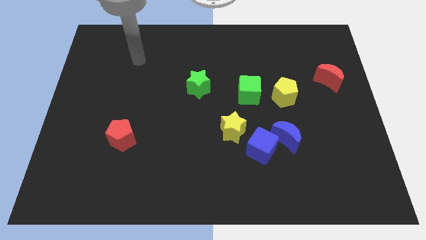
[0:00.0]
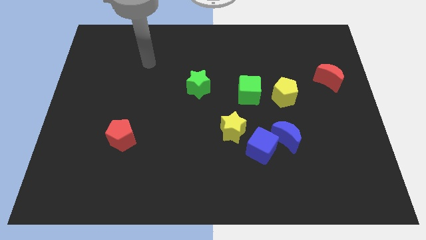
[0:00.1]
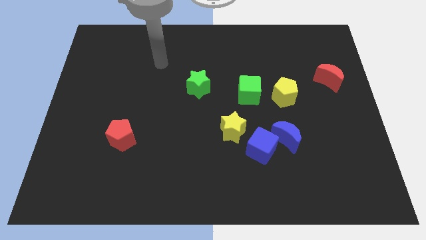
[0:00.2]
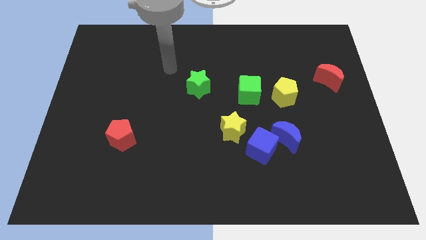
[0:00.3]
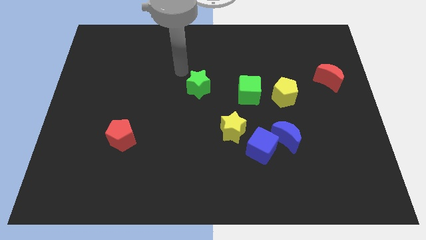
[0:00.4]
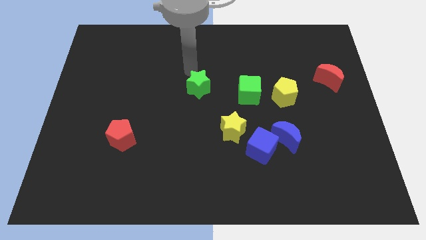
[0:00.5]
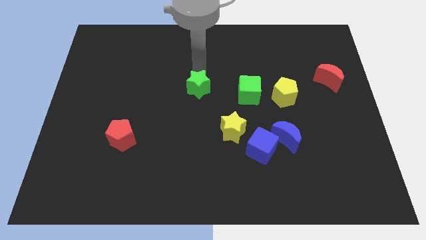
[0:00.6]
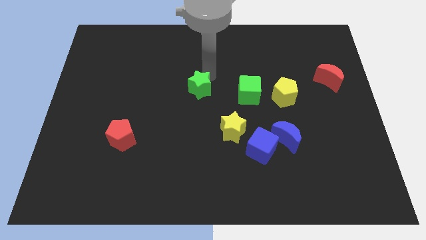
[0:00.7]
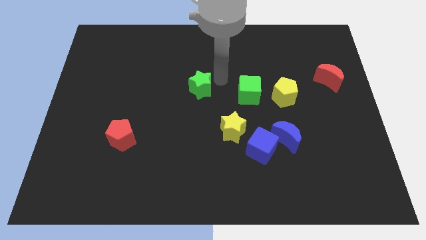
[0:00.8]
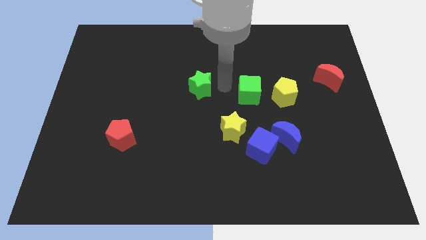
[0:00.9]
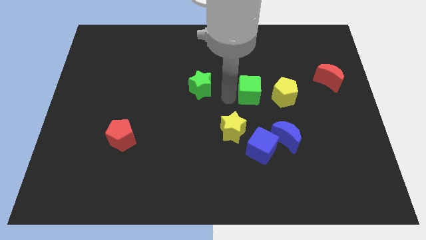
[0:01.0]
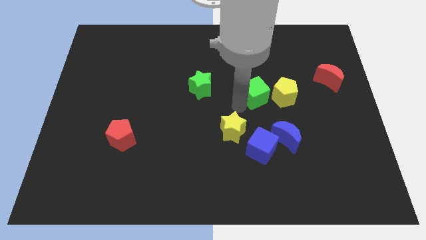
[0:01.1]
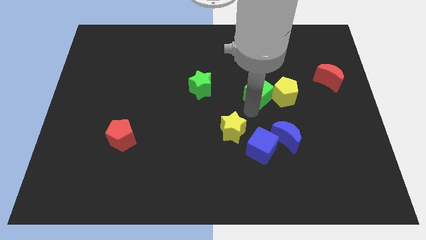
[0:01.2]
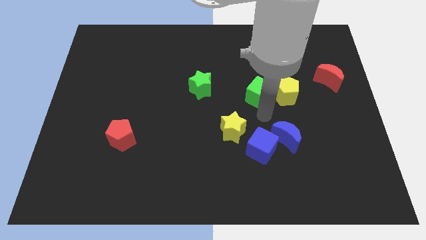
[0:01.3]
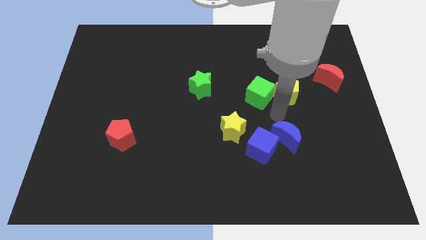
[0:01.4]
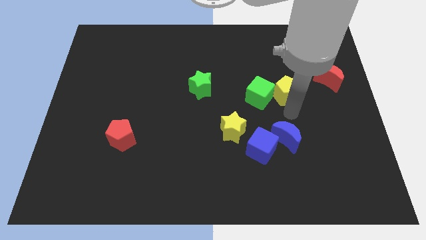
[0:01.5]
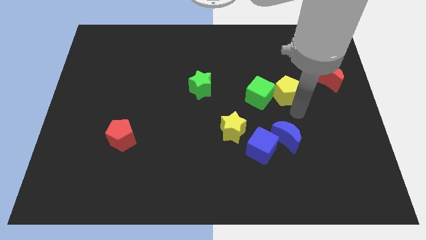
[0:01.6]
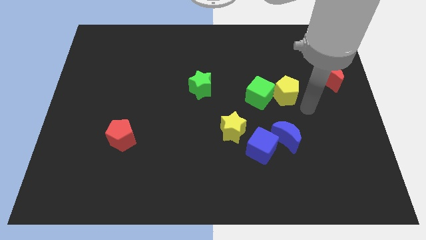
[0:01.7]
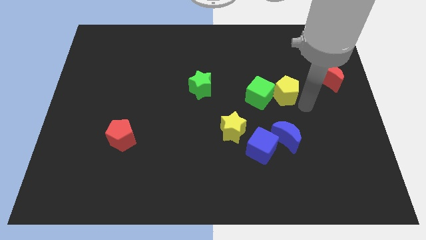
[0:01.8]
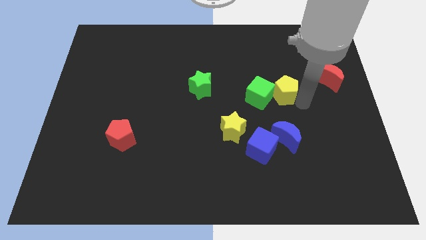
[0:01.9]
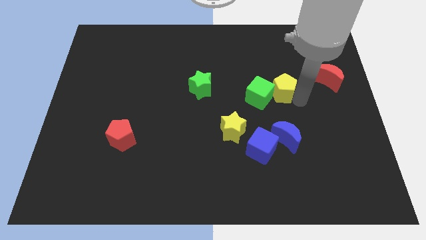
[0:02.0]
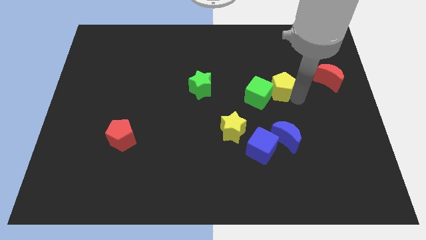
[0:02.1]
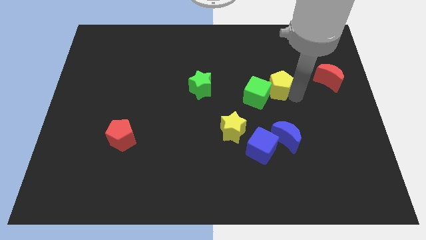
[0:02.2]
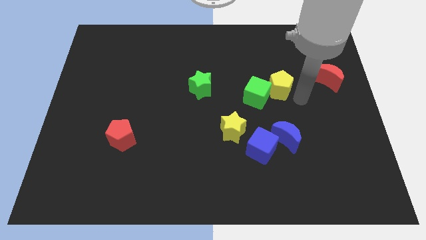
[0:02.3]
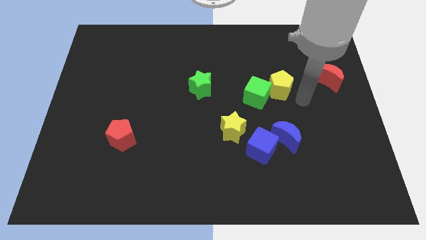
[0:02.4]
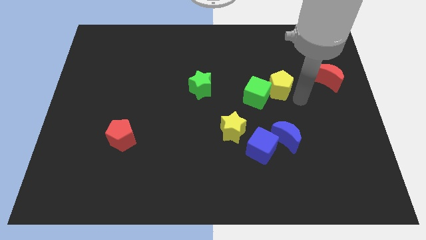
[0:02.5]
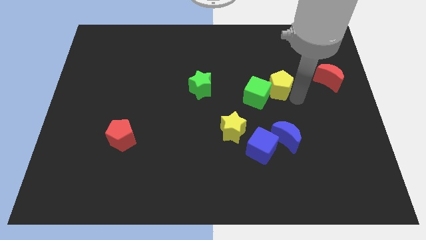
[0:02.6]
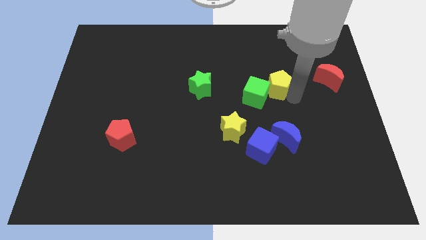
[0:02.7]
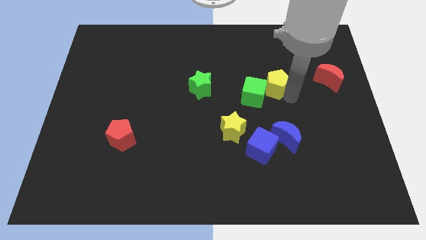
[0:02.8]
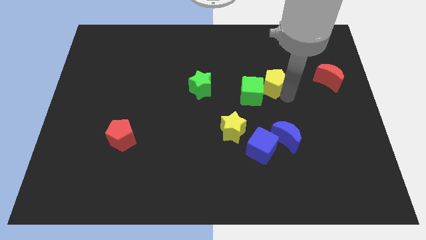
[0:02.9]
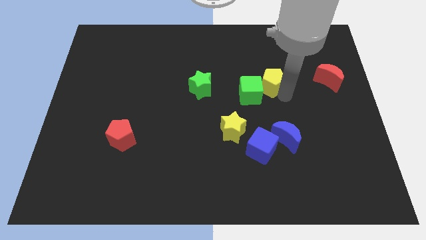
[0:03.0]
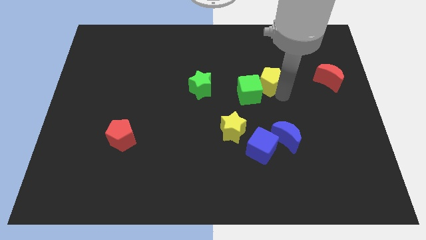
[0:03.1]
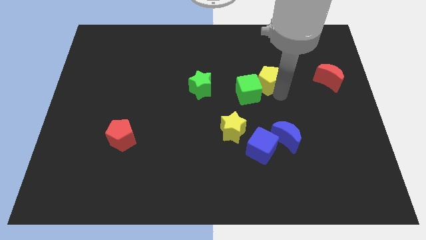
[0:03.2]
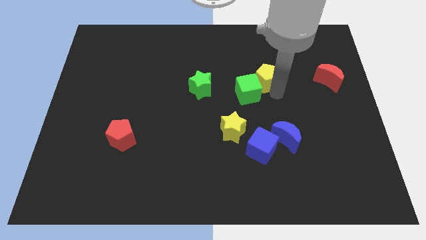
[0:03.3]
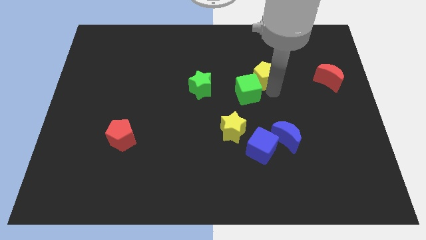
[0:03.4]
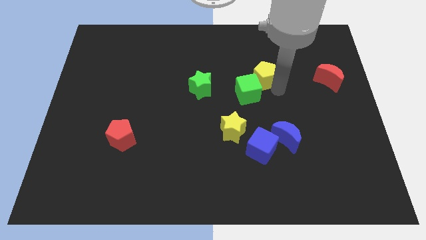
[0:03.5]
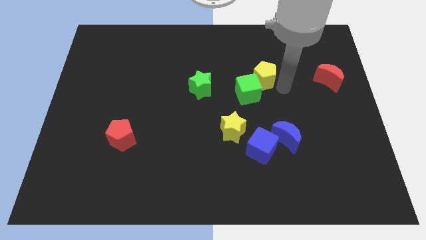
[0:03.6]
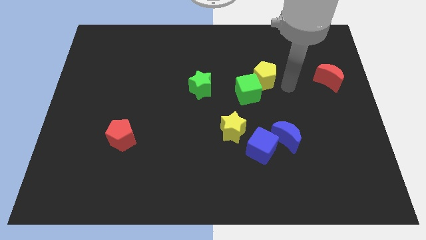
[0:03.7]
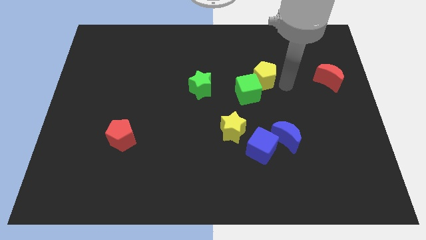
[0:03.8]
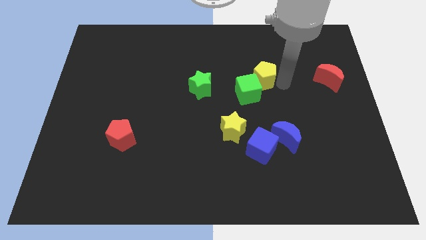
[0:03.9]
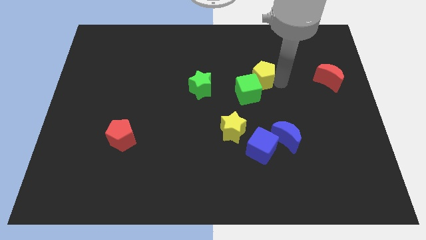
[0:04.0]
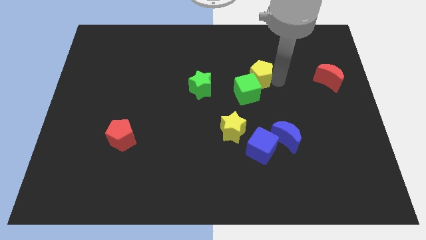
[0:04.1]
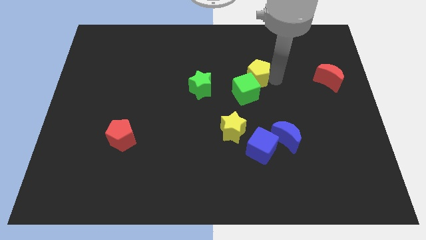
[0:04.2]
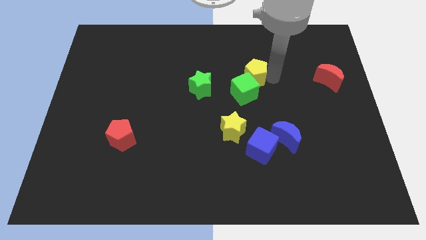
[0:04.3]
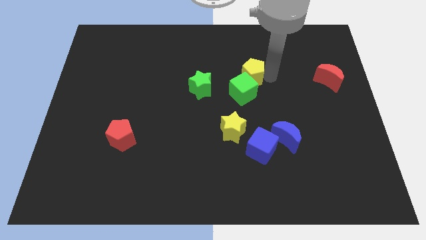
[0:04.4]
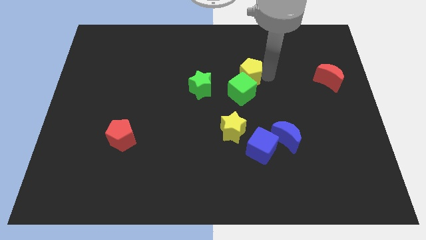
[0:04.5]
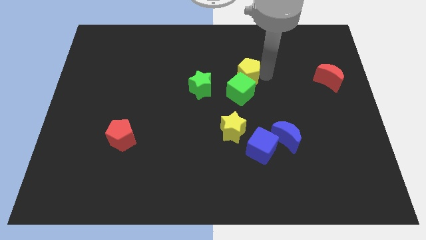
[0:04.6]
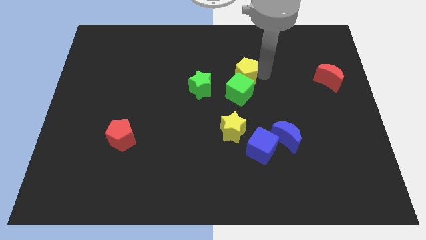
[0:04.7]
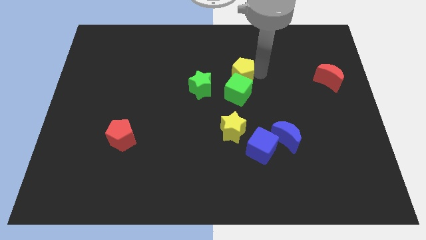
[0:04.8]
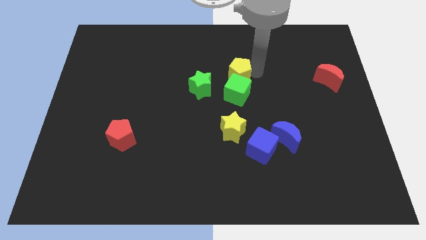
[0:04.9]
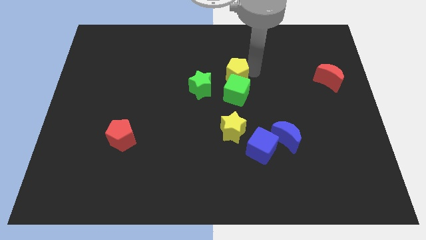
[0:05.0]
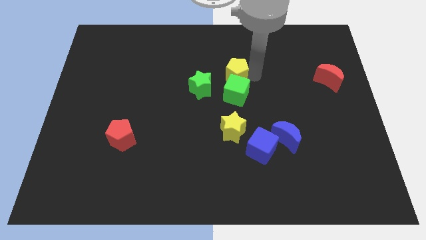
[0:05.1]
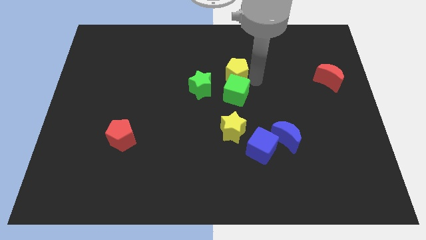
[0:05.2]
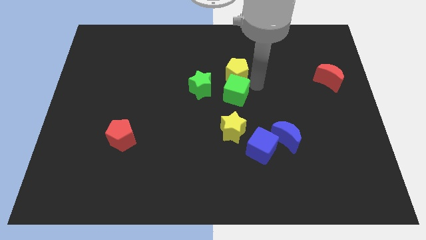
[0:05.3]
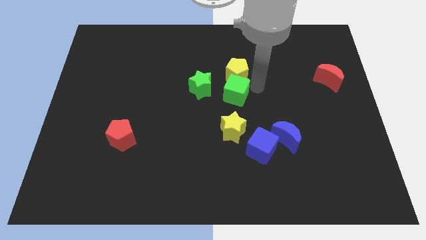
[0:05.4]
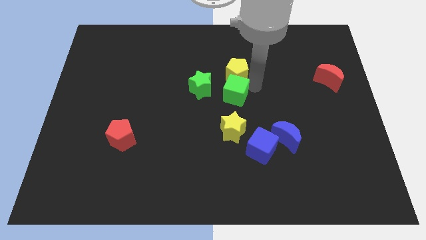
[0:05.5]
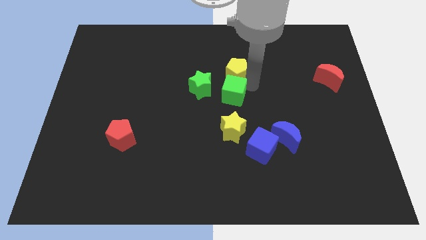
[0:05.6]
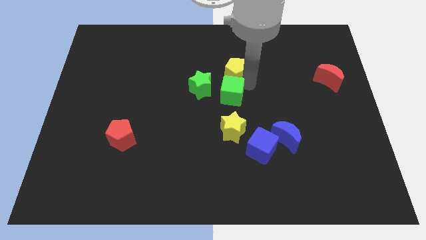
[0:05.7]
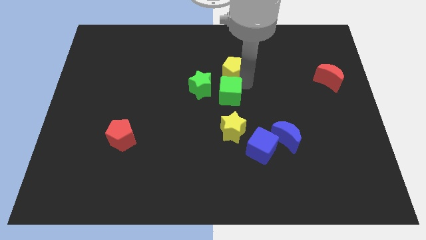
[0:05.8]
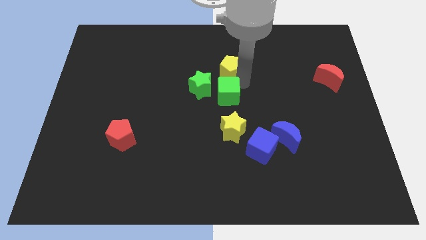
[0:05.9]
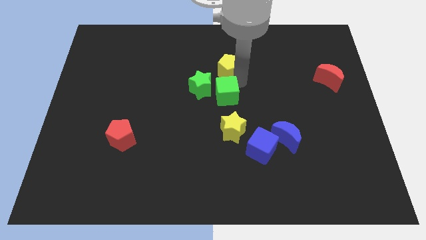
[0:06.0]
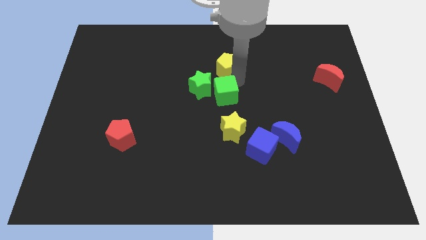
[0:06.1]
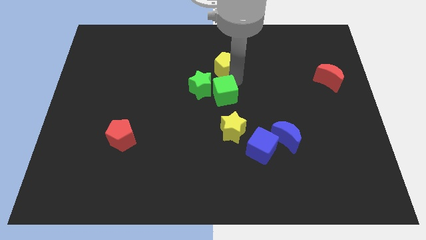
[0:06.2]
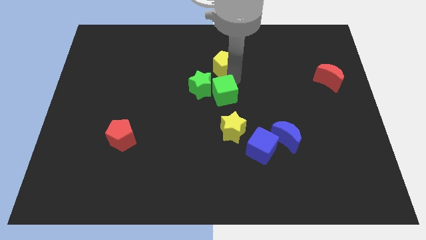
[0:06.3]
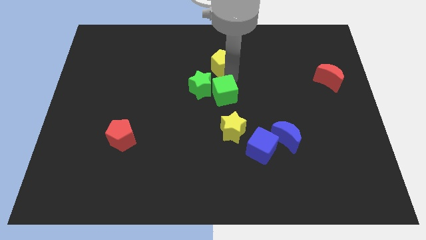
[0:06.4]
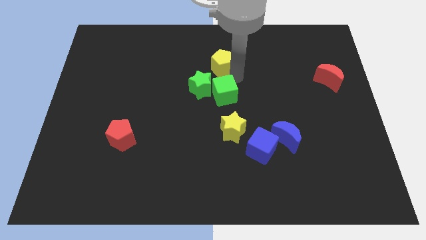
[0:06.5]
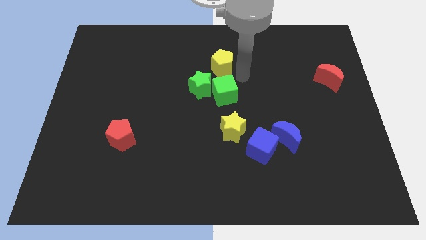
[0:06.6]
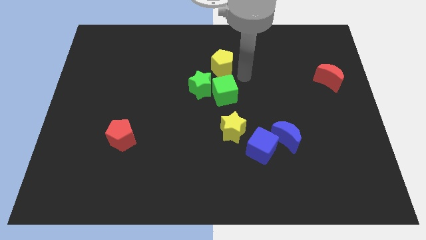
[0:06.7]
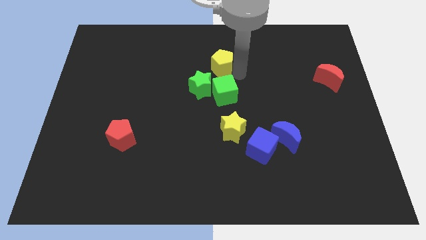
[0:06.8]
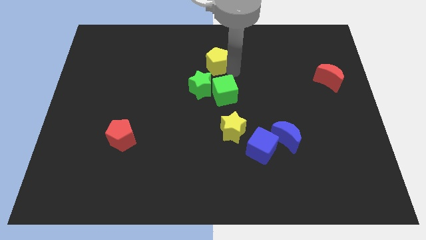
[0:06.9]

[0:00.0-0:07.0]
move the yellow pentagon to the top side of the green star
